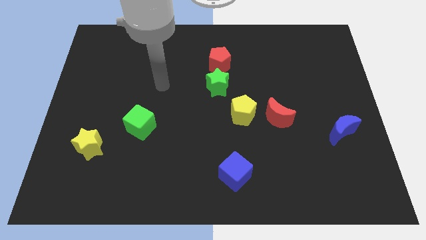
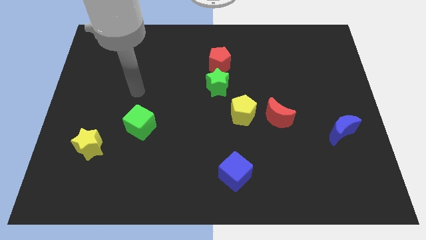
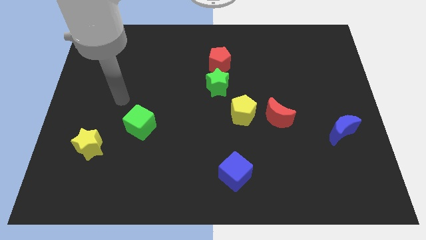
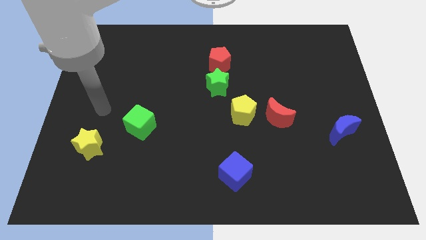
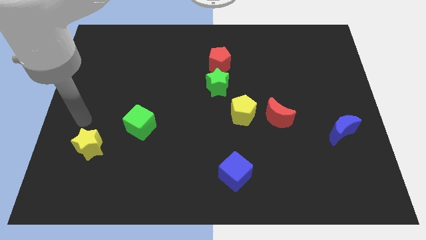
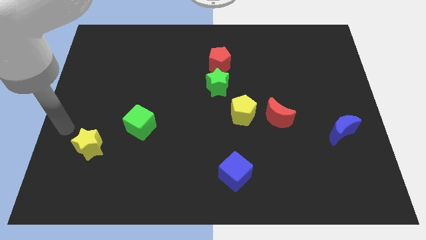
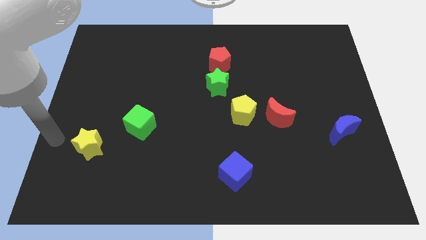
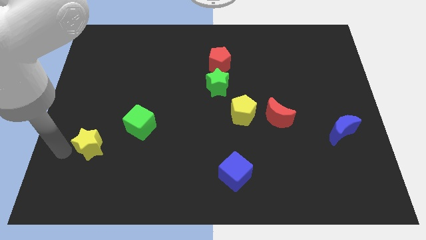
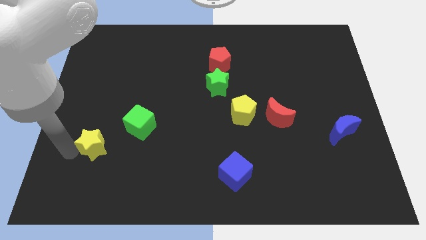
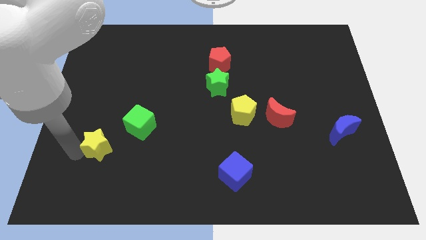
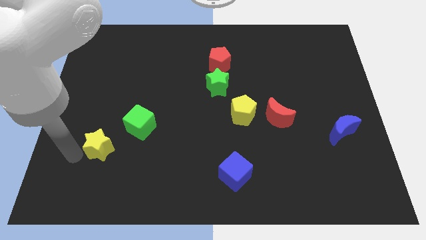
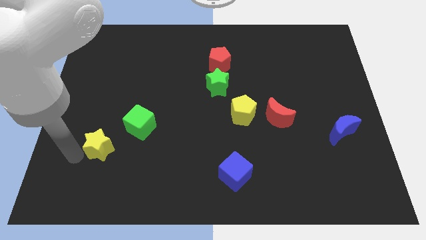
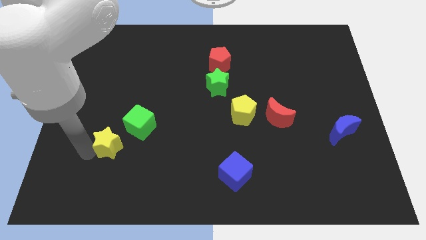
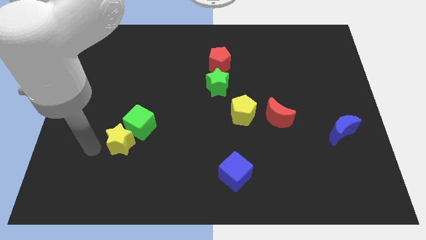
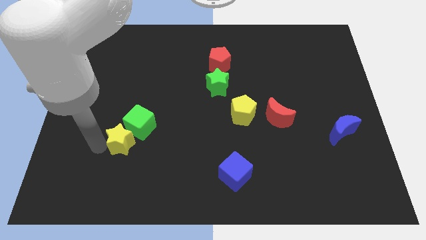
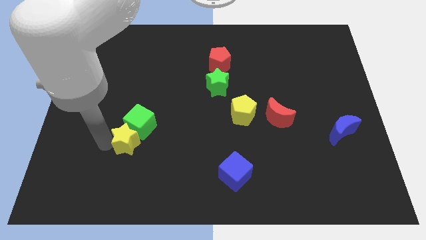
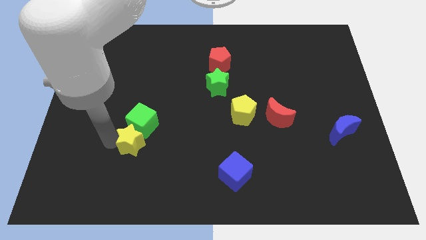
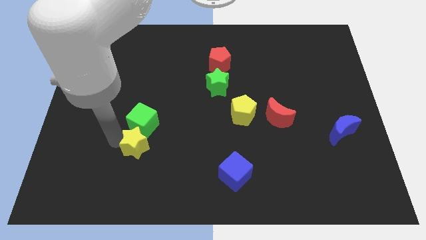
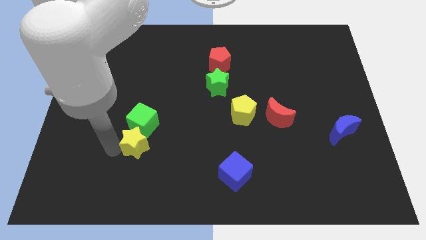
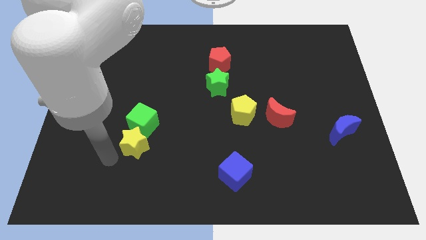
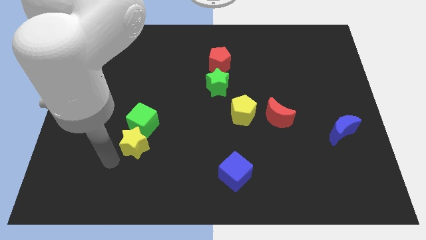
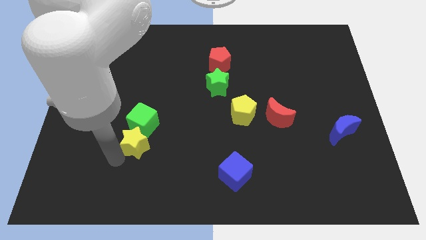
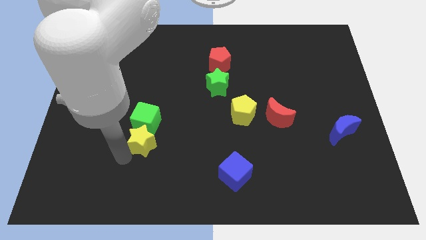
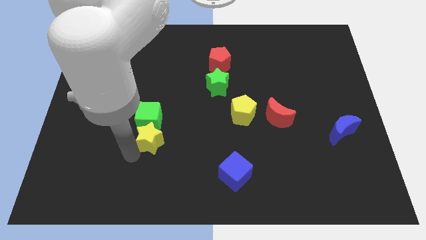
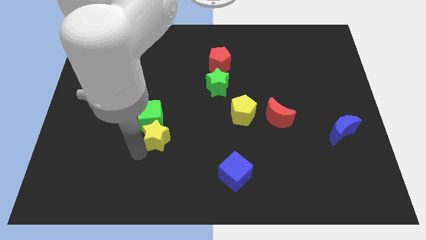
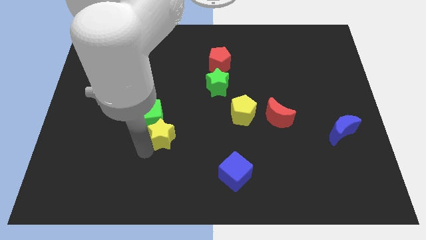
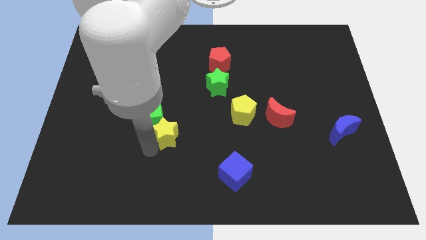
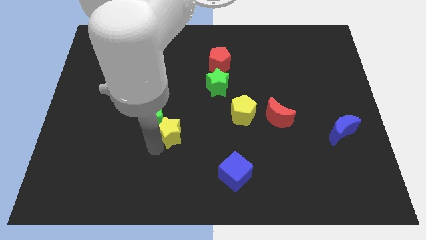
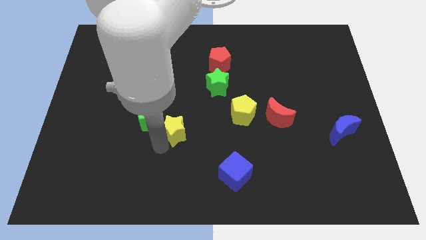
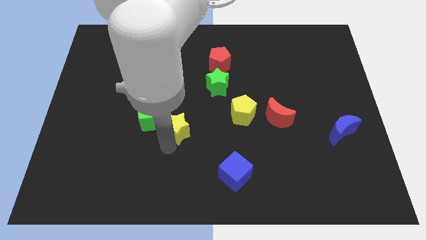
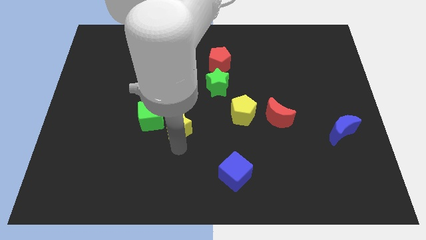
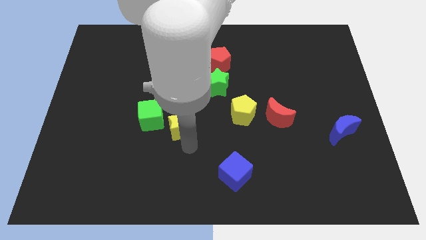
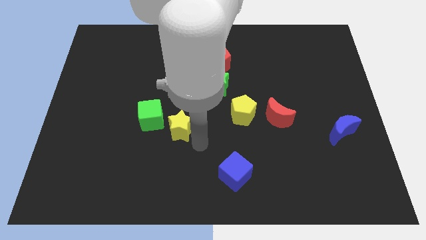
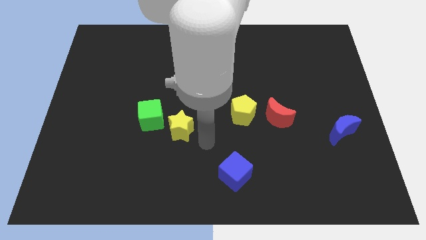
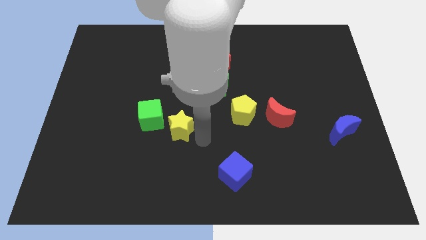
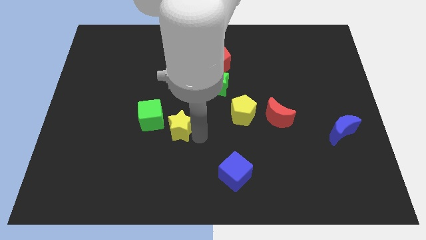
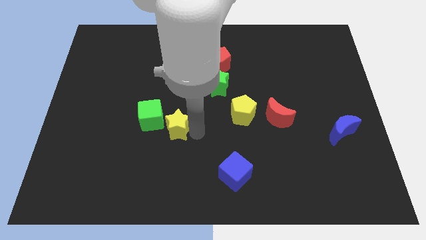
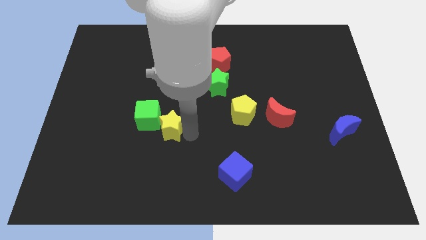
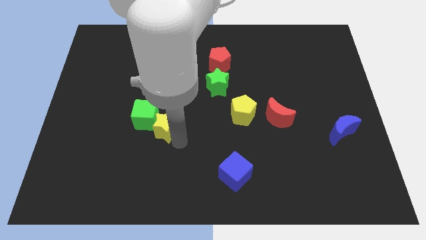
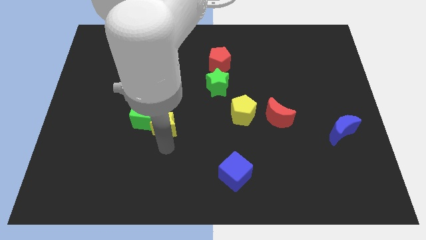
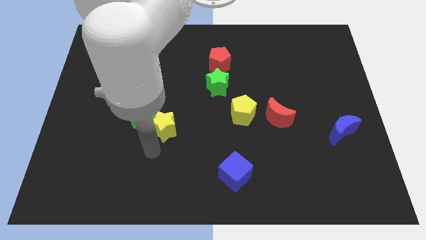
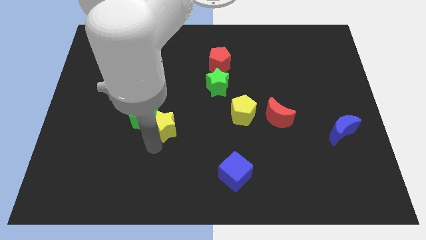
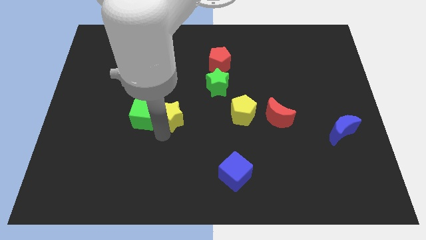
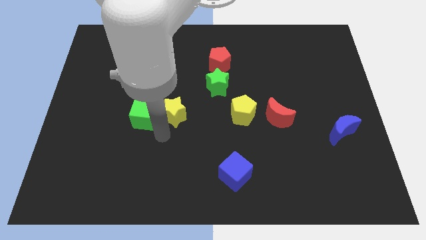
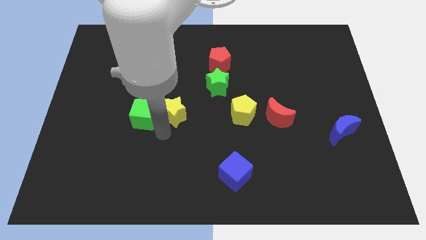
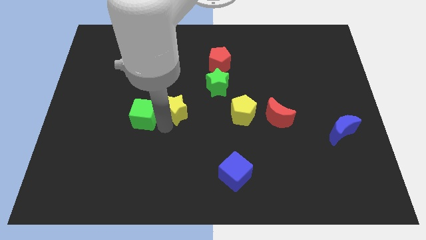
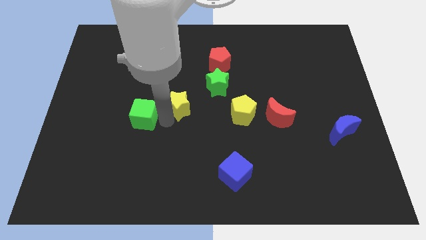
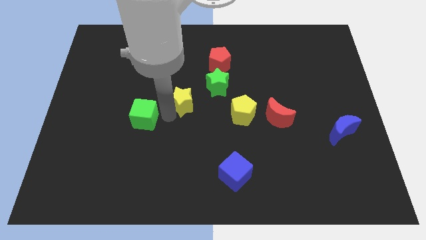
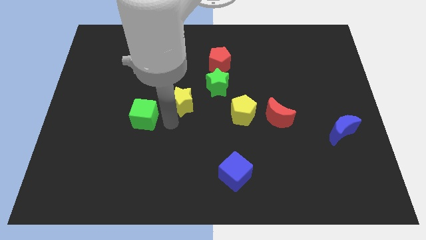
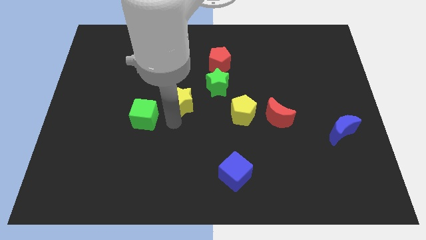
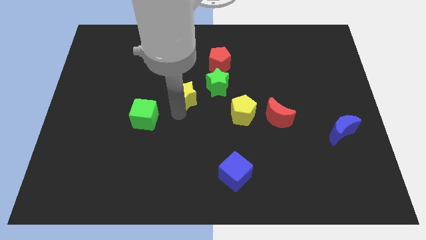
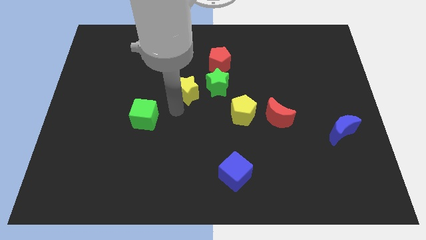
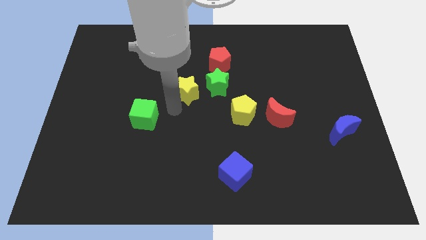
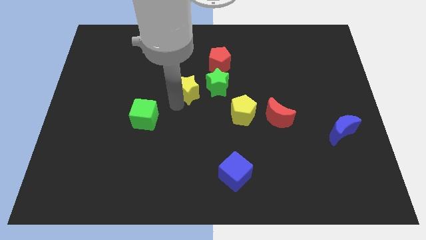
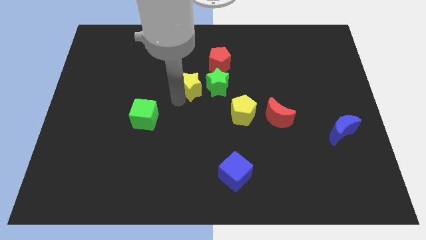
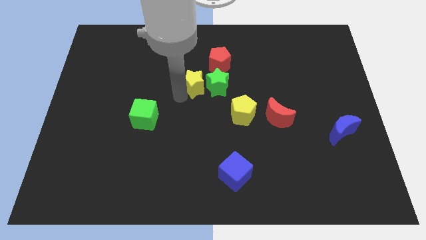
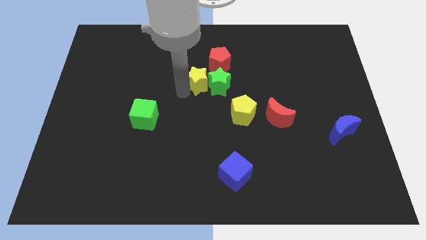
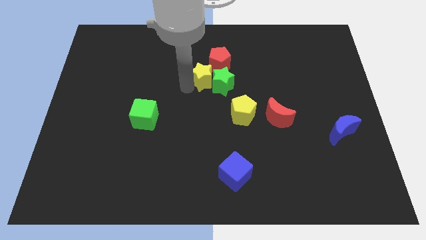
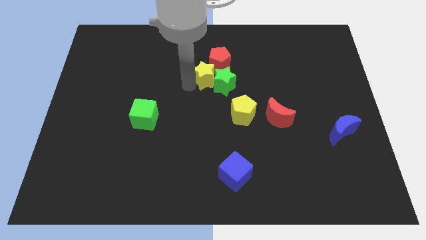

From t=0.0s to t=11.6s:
slide the yellow star next to the red pentagon

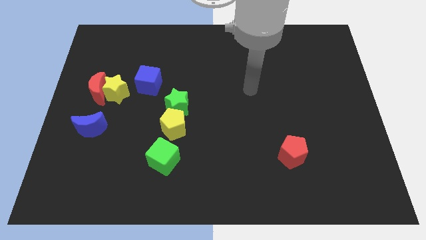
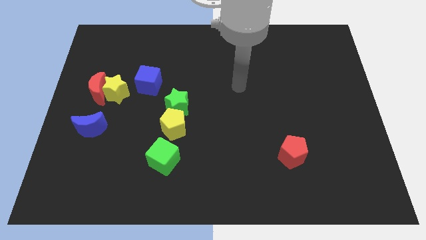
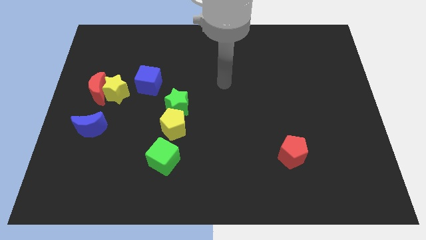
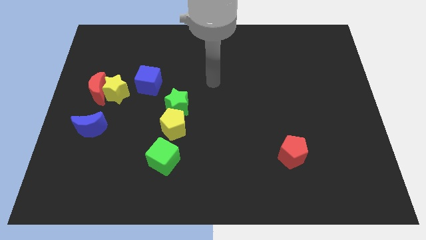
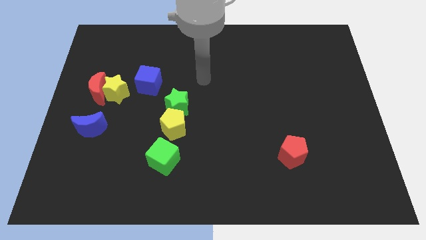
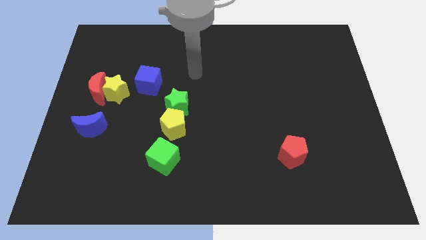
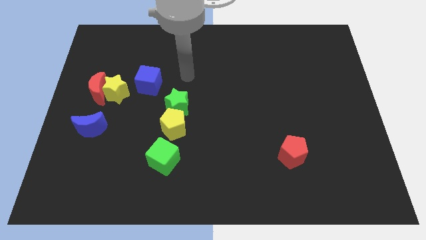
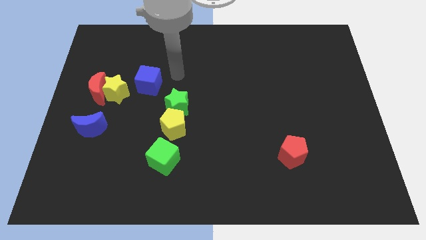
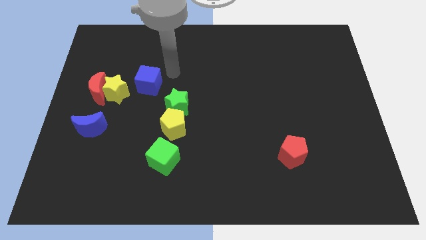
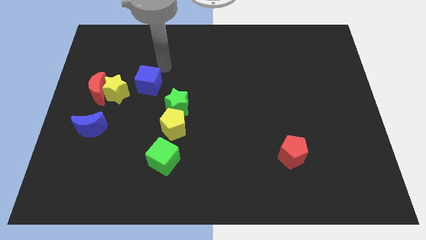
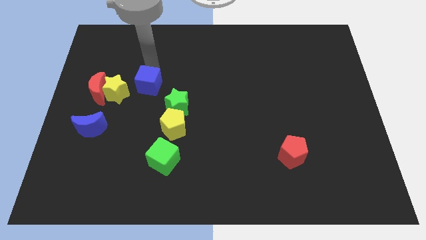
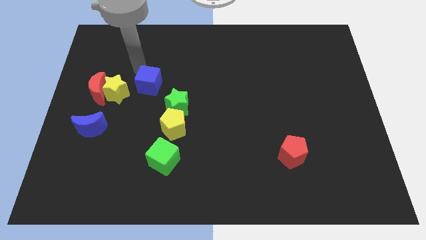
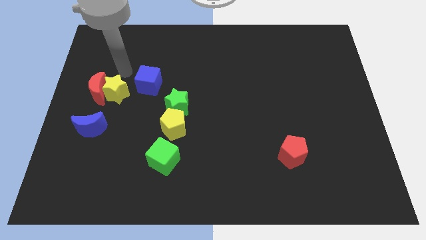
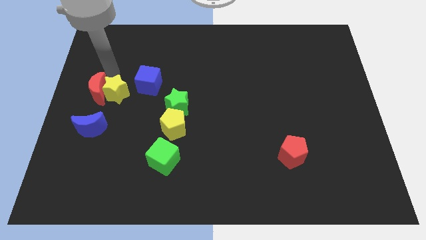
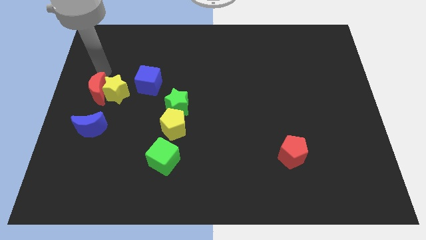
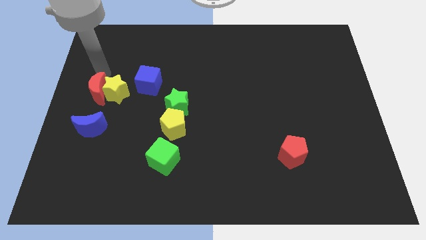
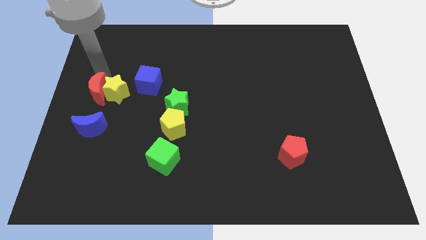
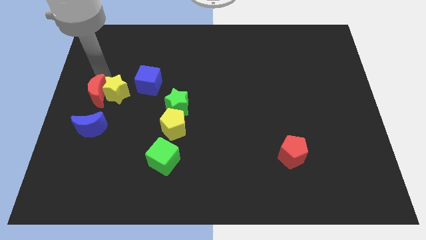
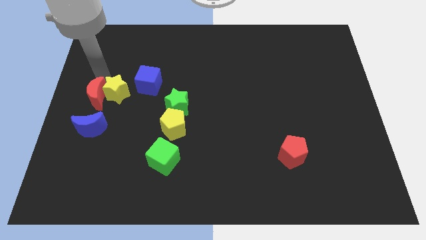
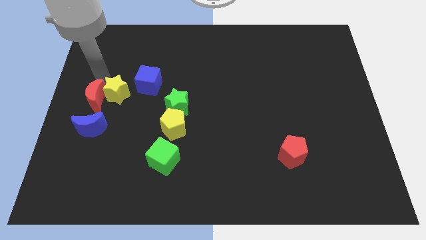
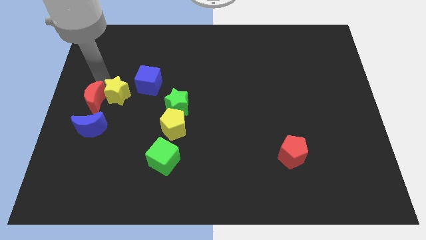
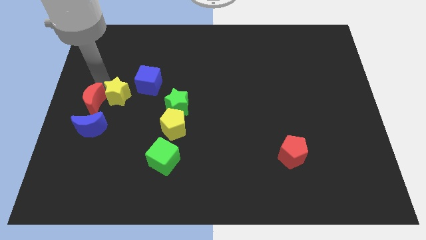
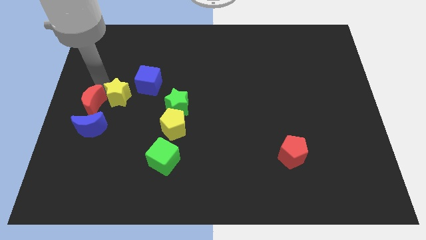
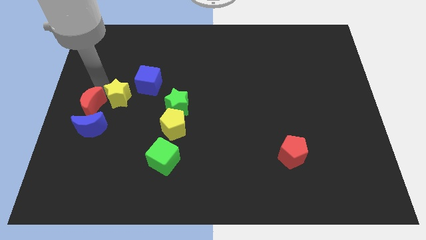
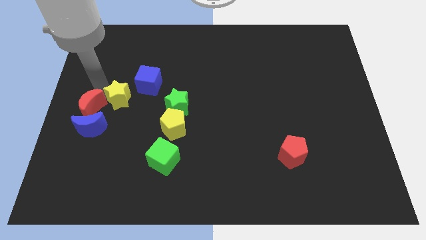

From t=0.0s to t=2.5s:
move the red moon close to the blue moon
